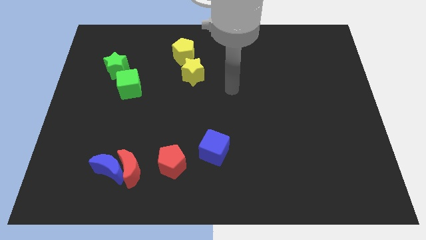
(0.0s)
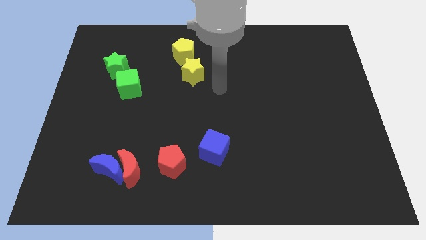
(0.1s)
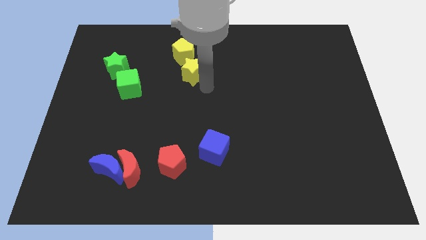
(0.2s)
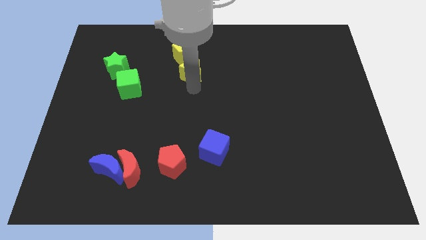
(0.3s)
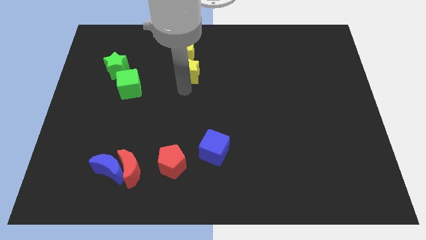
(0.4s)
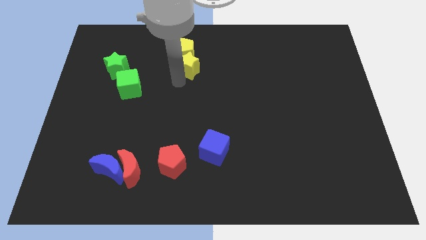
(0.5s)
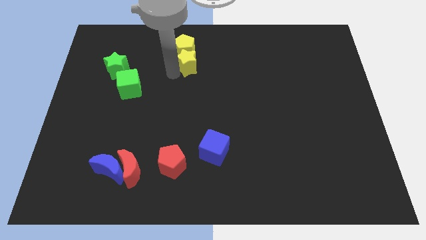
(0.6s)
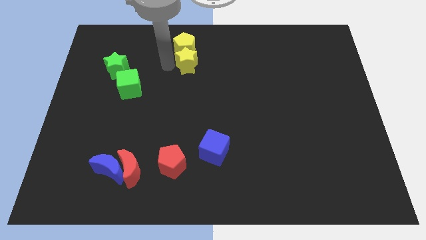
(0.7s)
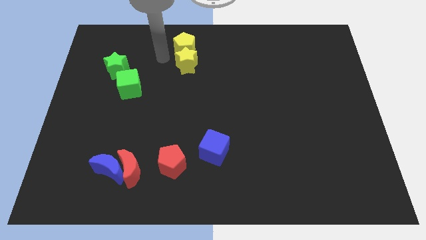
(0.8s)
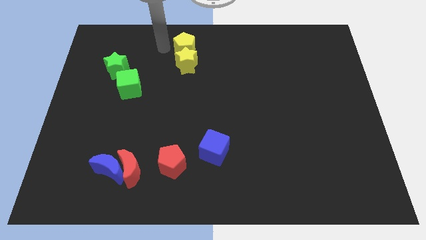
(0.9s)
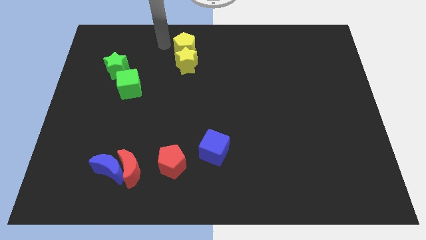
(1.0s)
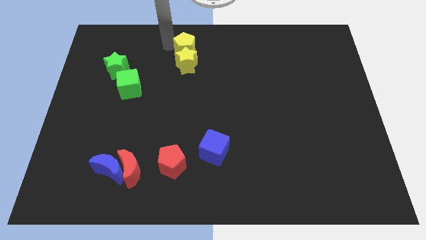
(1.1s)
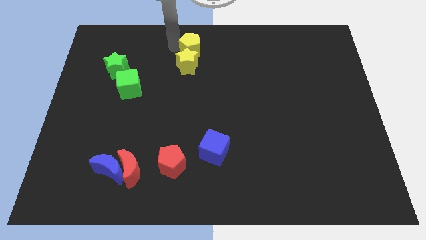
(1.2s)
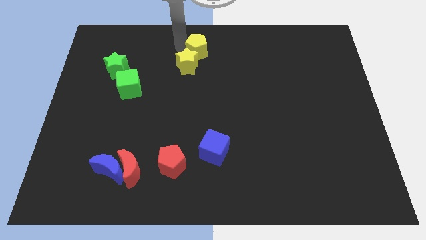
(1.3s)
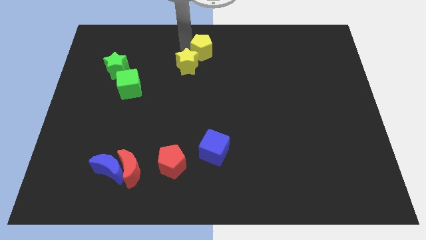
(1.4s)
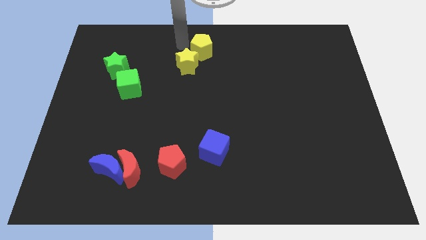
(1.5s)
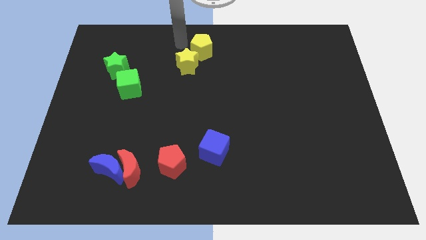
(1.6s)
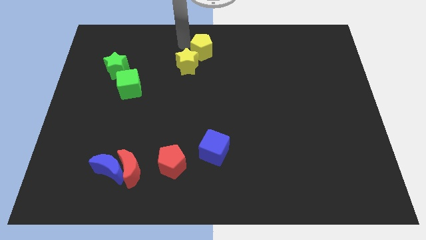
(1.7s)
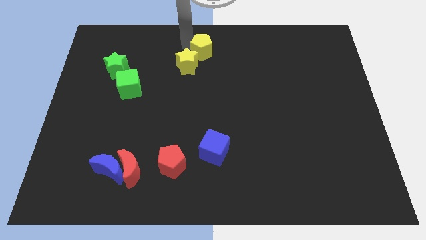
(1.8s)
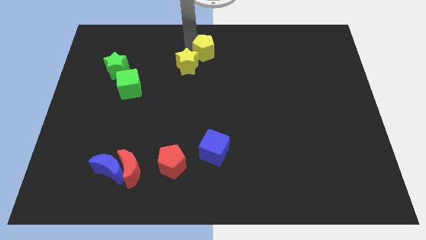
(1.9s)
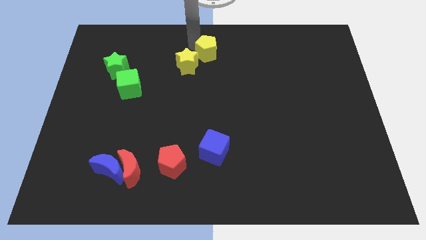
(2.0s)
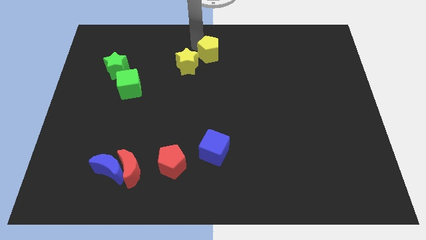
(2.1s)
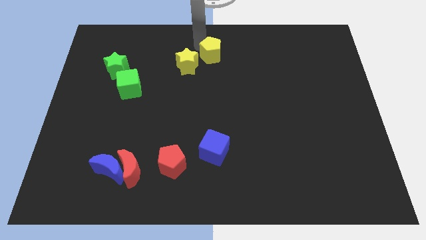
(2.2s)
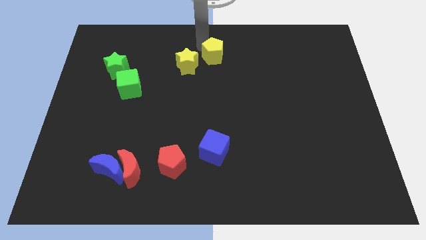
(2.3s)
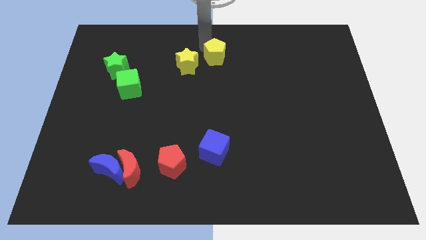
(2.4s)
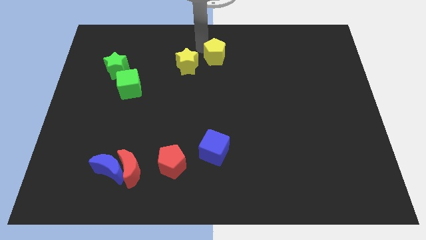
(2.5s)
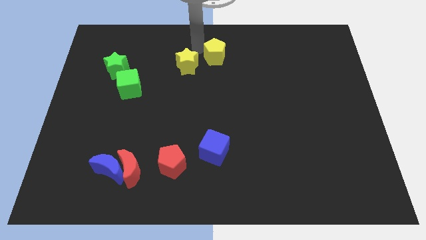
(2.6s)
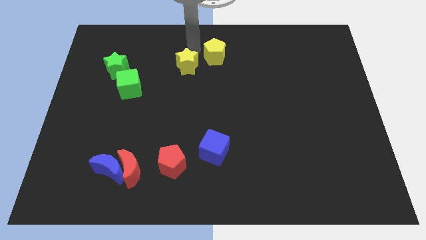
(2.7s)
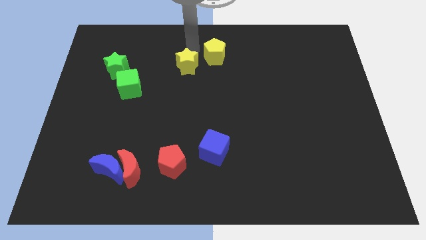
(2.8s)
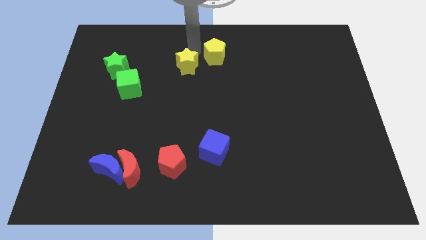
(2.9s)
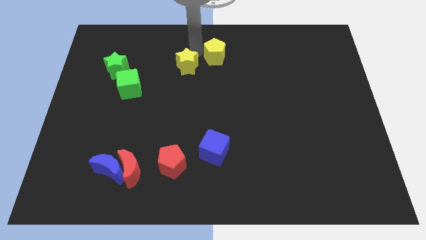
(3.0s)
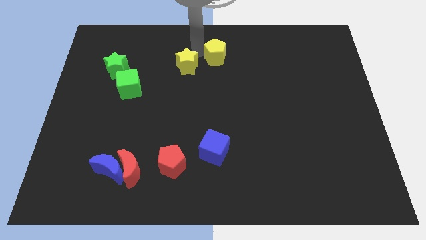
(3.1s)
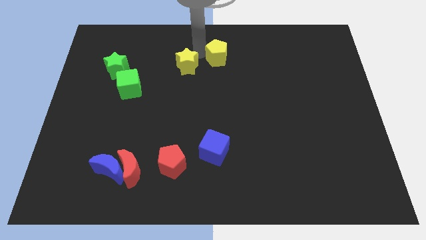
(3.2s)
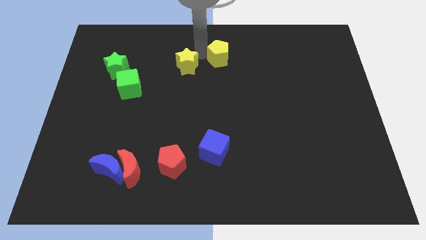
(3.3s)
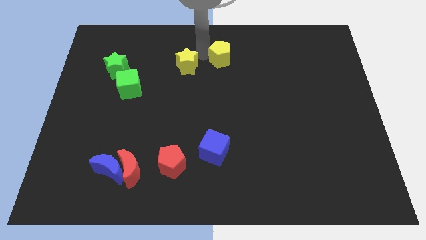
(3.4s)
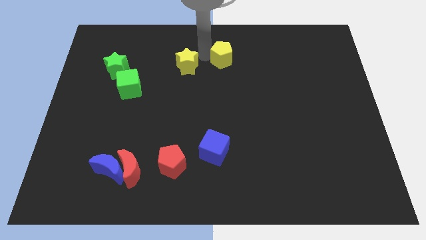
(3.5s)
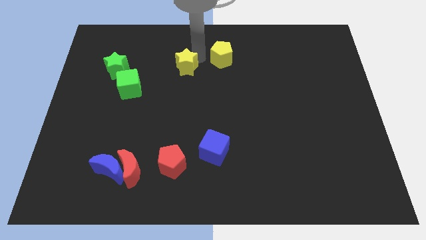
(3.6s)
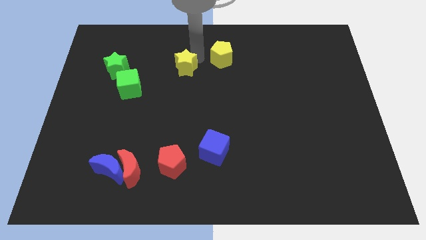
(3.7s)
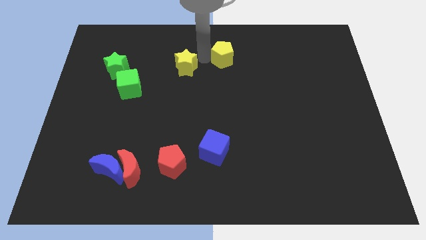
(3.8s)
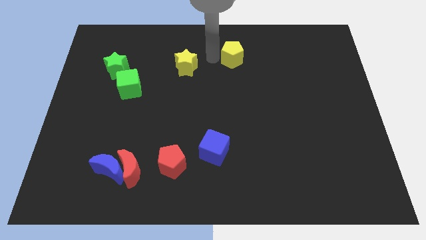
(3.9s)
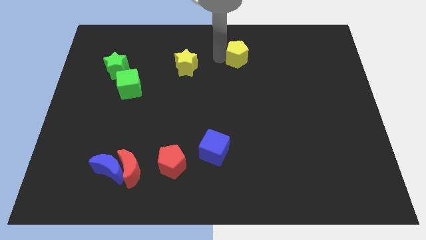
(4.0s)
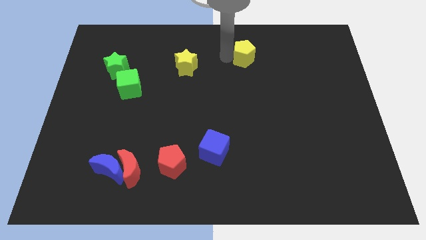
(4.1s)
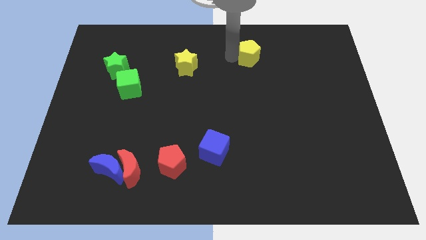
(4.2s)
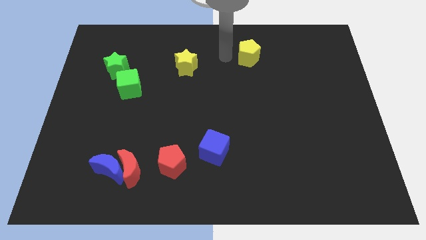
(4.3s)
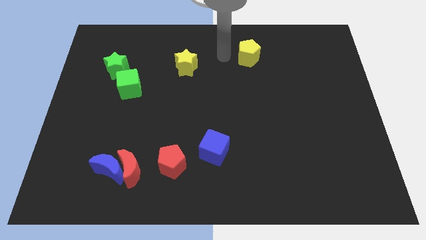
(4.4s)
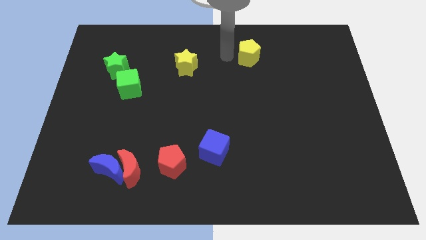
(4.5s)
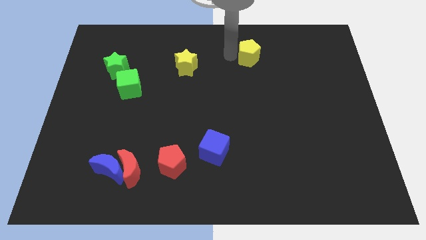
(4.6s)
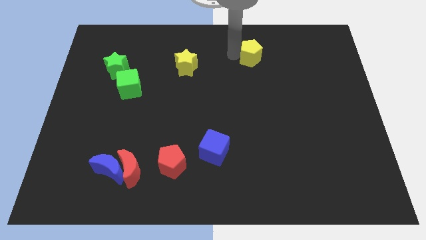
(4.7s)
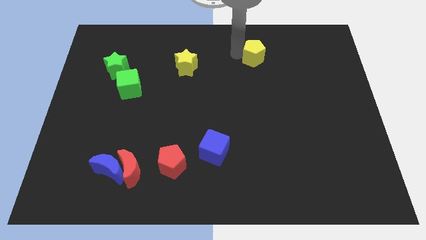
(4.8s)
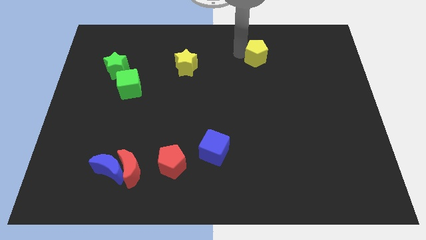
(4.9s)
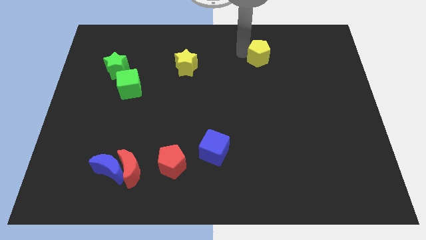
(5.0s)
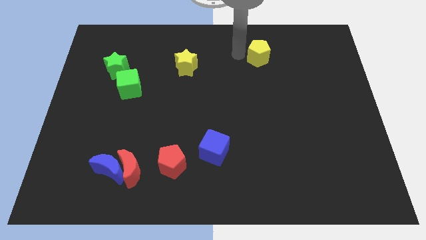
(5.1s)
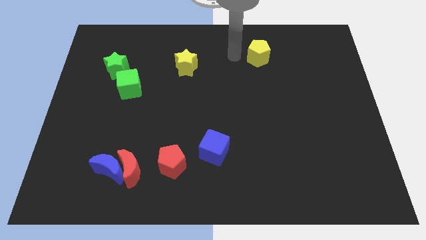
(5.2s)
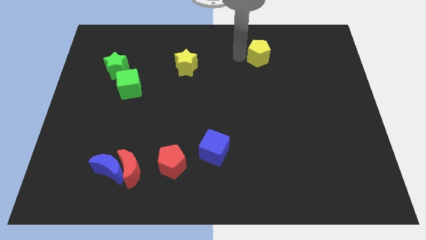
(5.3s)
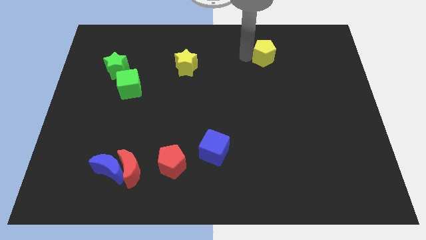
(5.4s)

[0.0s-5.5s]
slide the yellow pentagon to the right

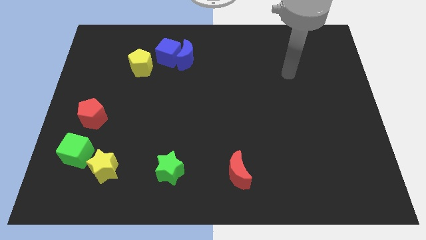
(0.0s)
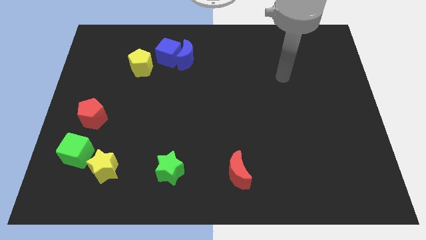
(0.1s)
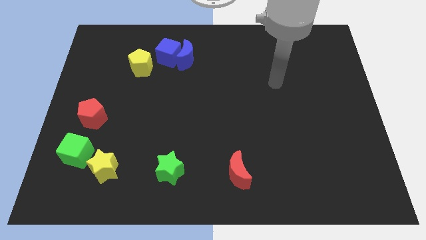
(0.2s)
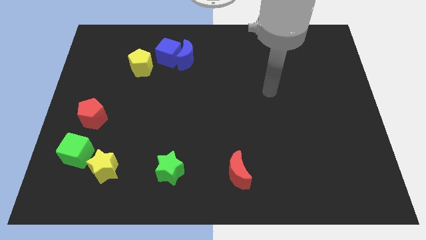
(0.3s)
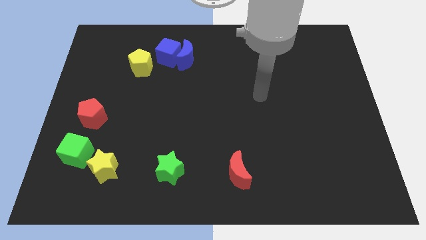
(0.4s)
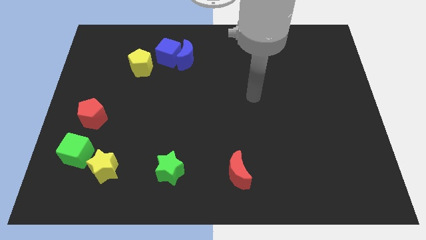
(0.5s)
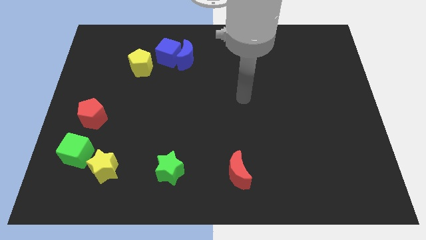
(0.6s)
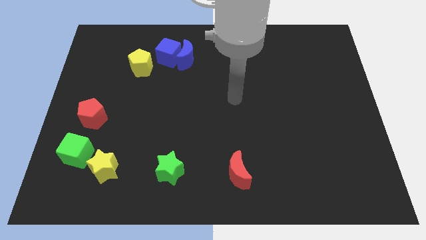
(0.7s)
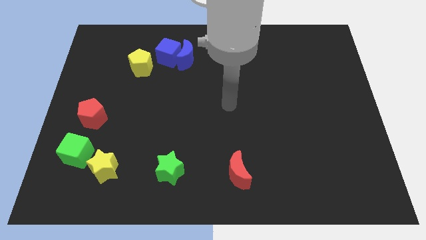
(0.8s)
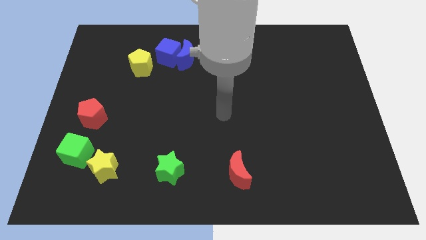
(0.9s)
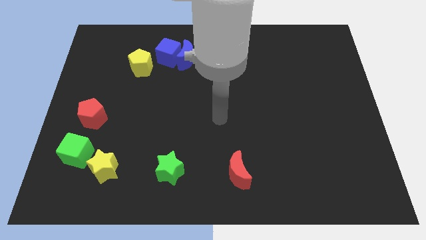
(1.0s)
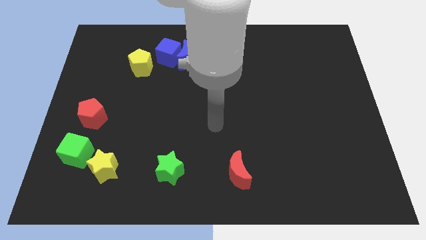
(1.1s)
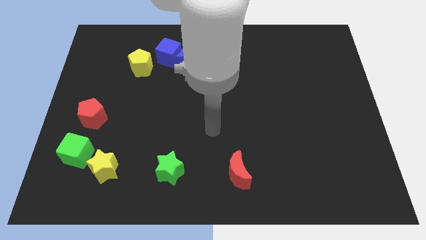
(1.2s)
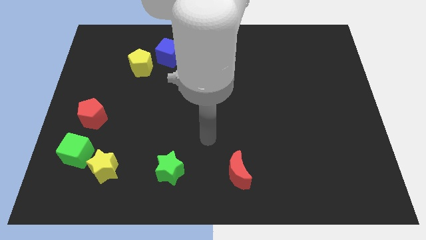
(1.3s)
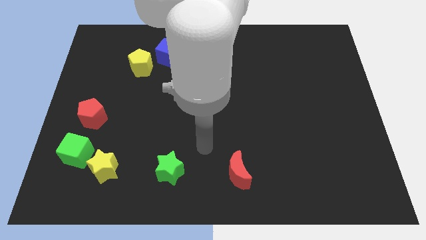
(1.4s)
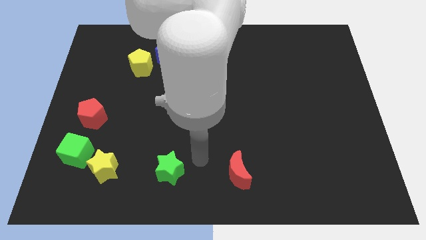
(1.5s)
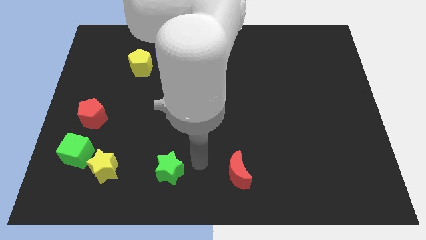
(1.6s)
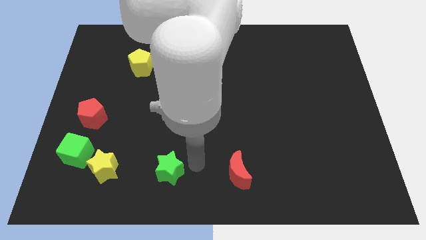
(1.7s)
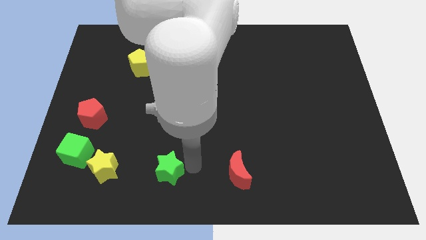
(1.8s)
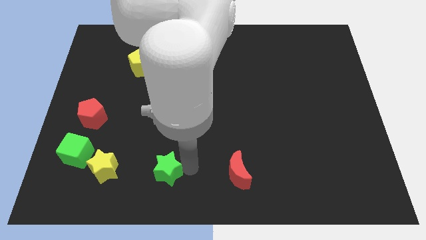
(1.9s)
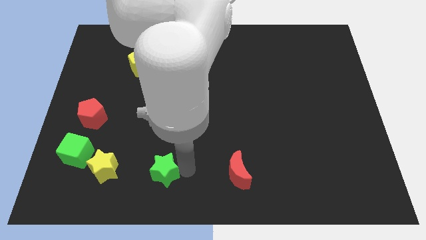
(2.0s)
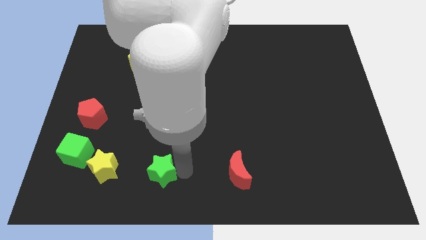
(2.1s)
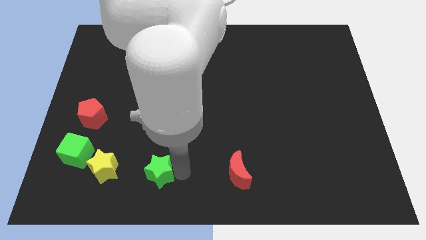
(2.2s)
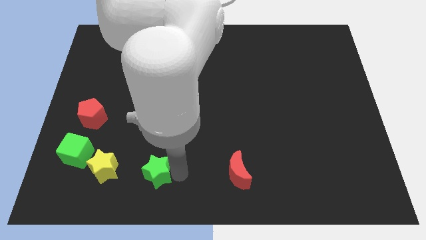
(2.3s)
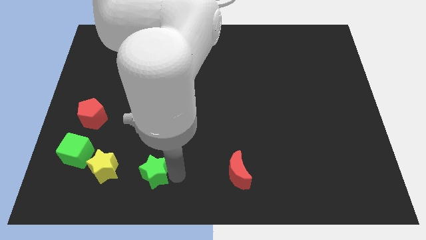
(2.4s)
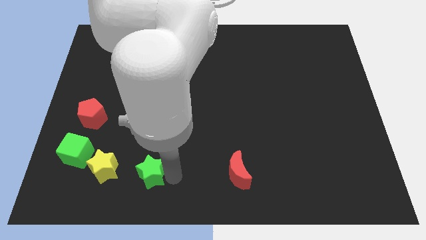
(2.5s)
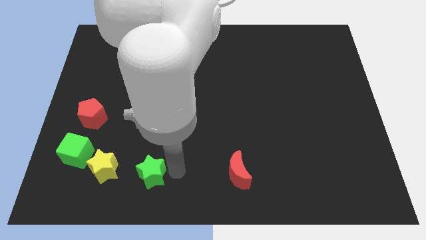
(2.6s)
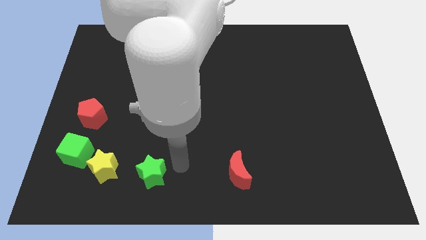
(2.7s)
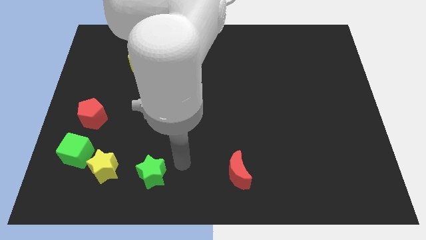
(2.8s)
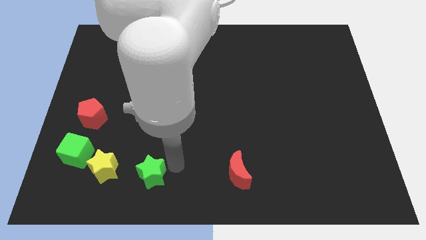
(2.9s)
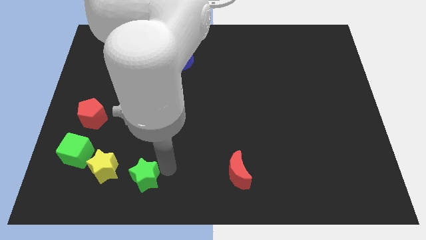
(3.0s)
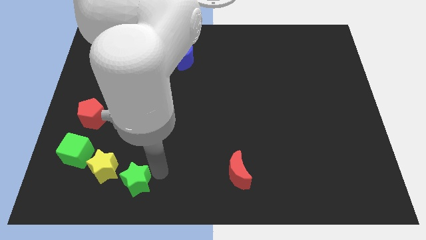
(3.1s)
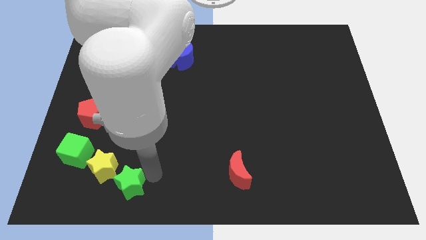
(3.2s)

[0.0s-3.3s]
push the green star slightly left
